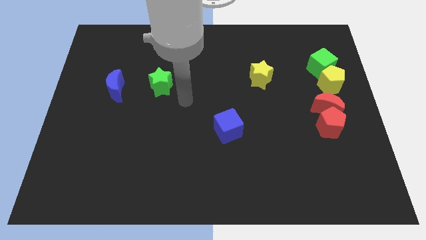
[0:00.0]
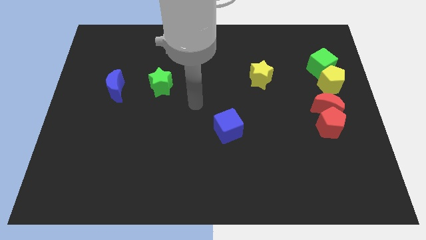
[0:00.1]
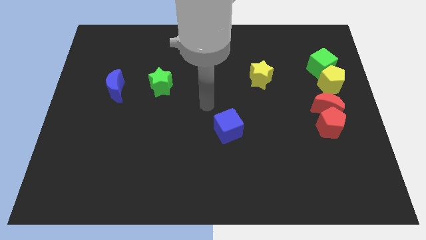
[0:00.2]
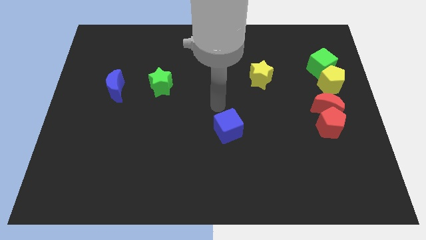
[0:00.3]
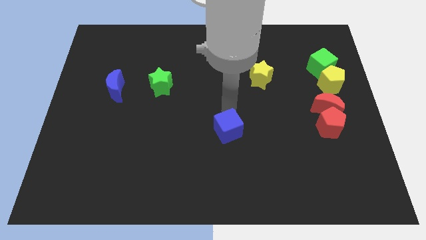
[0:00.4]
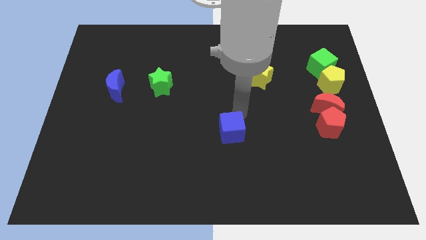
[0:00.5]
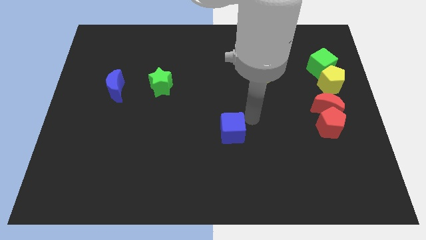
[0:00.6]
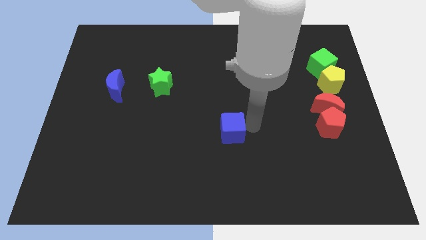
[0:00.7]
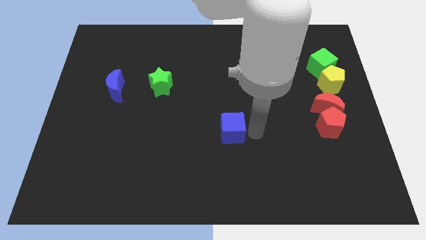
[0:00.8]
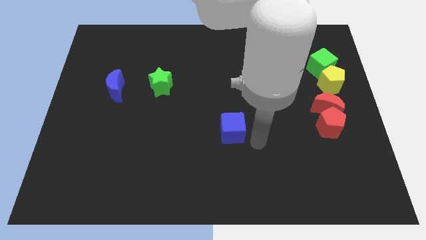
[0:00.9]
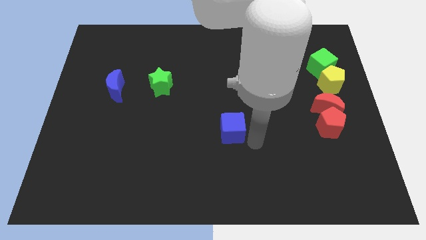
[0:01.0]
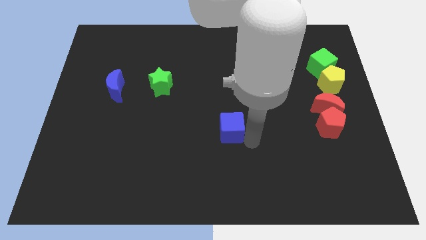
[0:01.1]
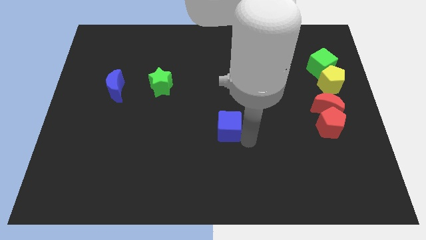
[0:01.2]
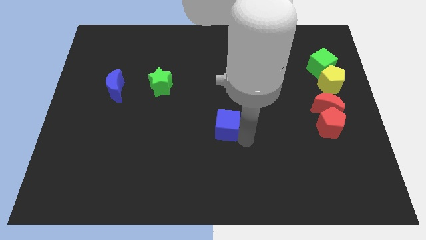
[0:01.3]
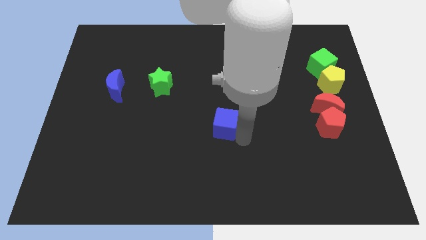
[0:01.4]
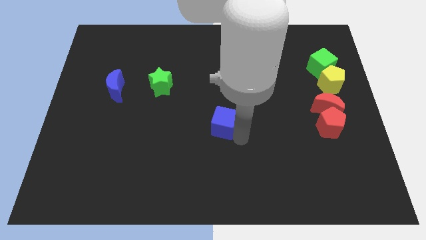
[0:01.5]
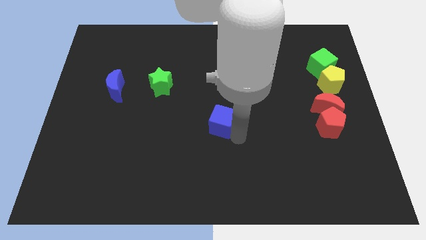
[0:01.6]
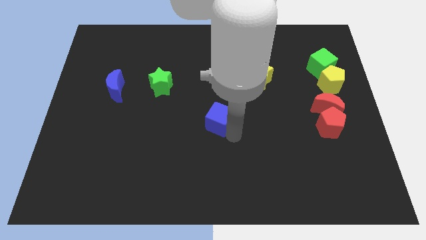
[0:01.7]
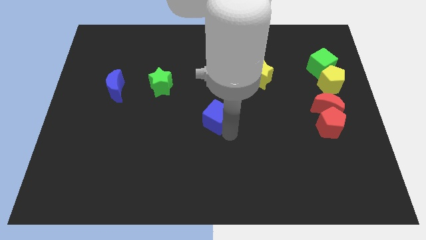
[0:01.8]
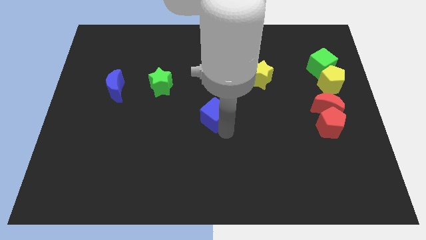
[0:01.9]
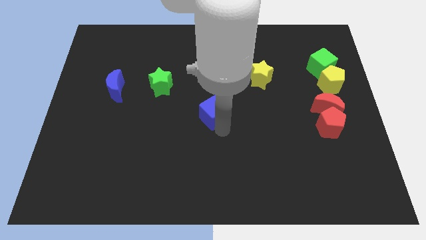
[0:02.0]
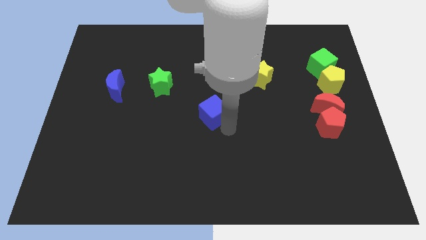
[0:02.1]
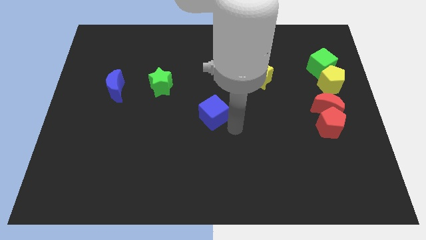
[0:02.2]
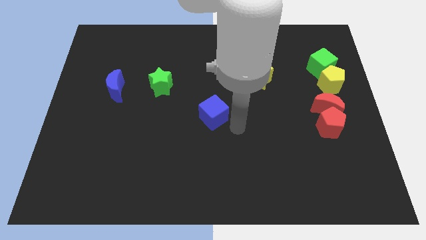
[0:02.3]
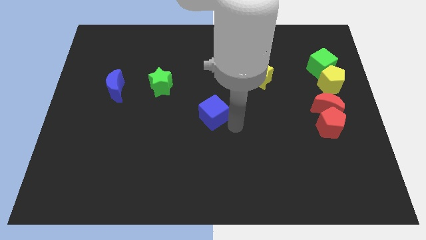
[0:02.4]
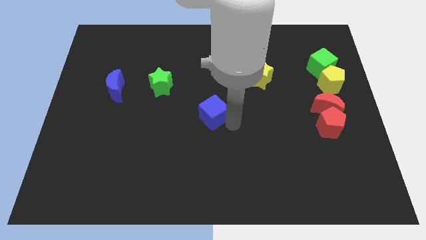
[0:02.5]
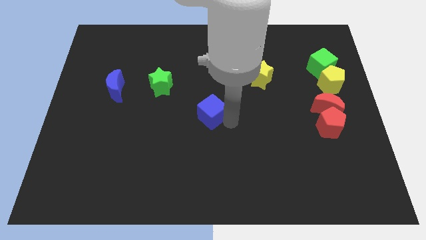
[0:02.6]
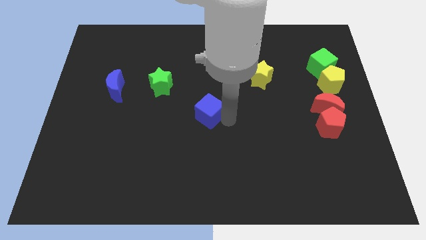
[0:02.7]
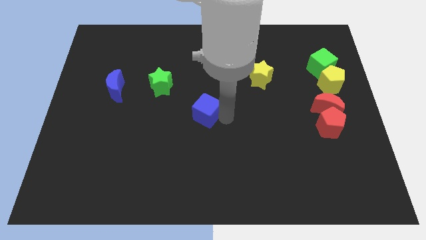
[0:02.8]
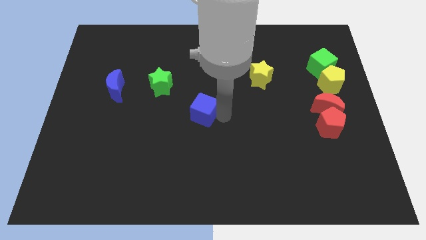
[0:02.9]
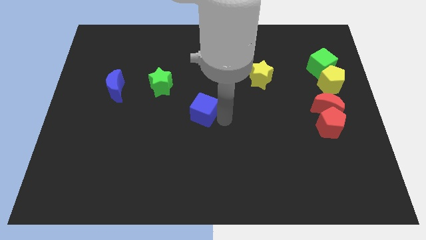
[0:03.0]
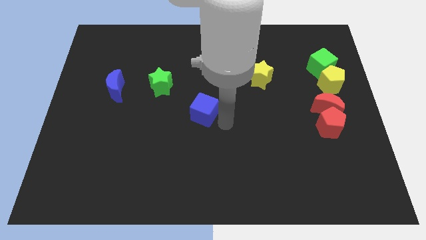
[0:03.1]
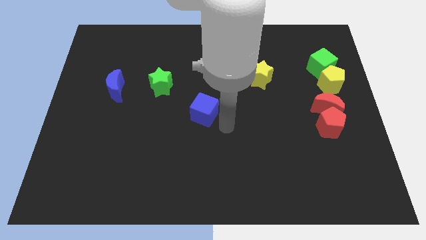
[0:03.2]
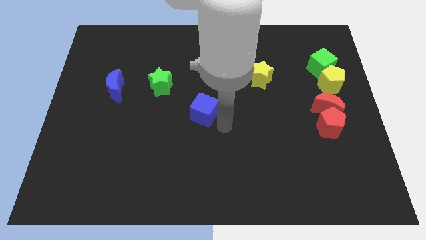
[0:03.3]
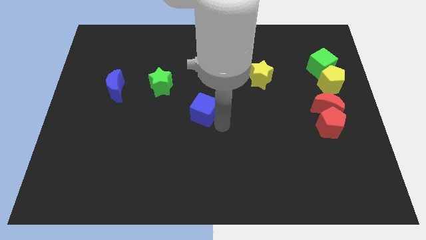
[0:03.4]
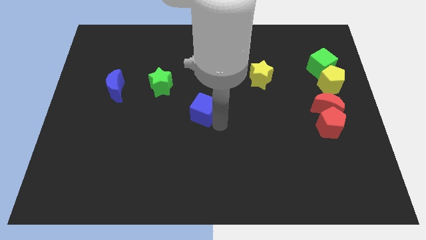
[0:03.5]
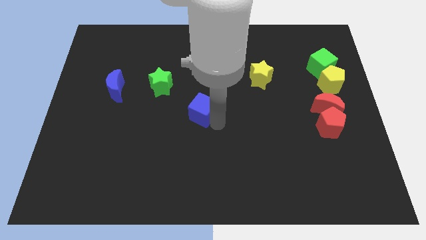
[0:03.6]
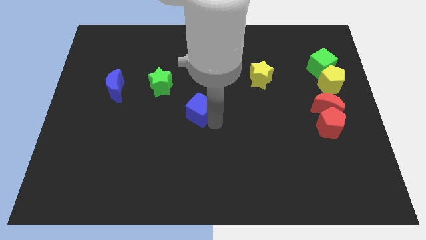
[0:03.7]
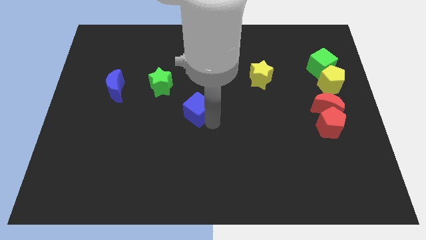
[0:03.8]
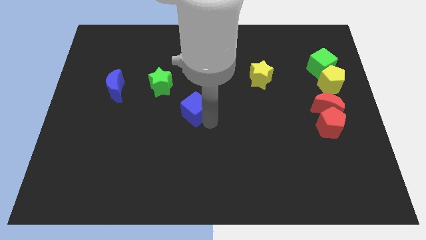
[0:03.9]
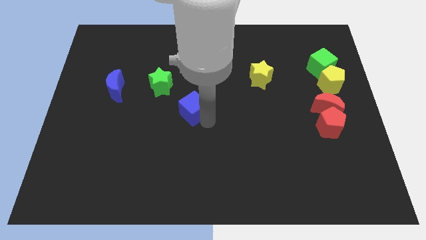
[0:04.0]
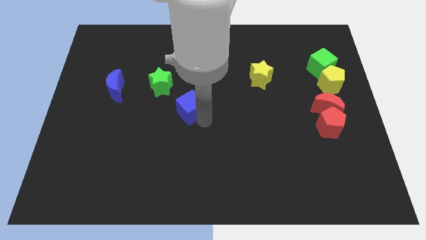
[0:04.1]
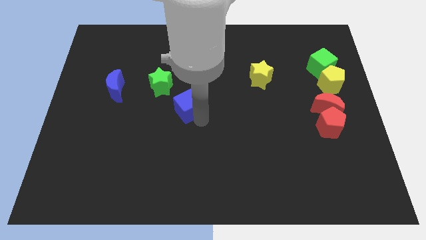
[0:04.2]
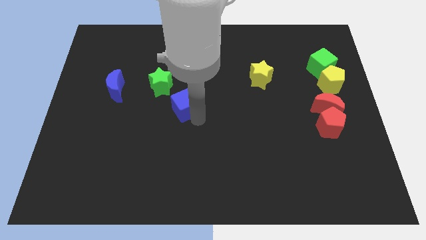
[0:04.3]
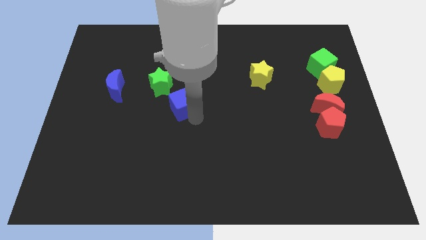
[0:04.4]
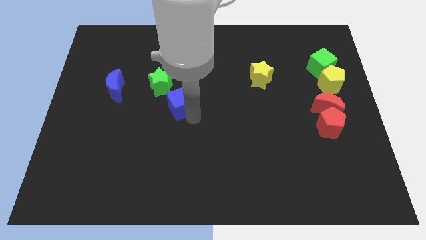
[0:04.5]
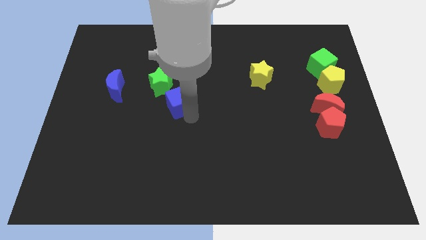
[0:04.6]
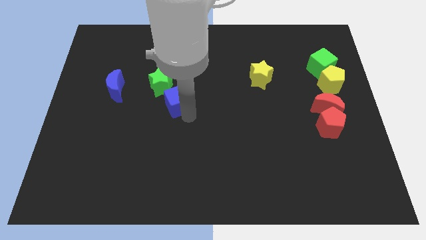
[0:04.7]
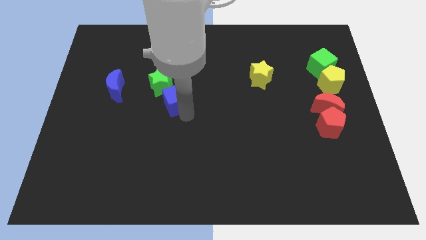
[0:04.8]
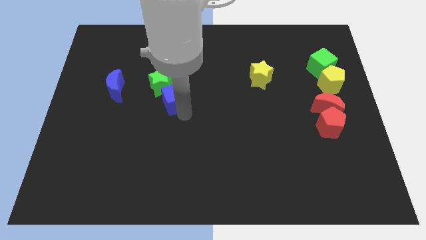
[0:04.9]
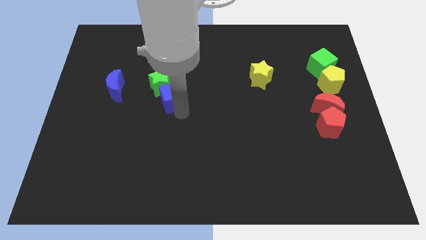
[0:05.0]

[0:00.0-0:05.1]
push the blue cube close to the green star

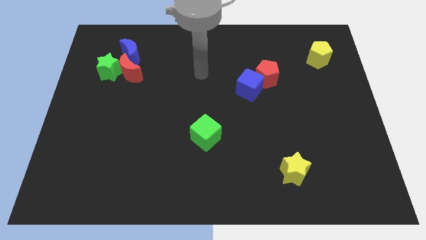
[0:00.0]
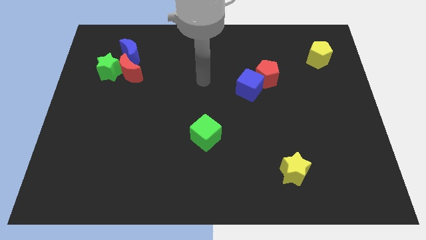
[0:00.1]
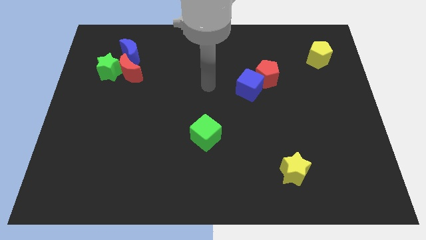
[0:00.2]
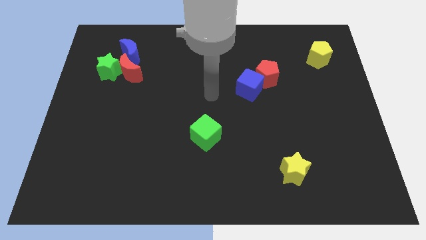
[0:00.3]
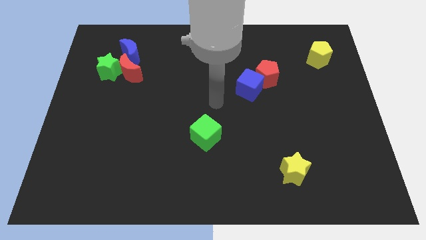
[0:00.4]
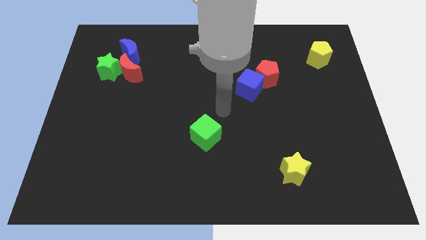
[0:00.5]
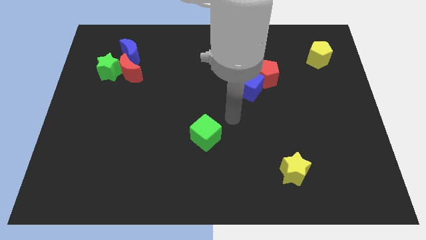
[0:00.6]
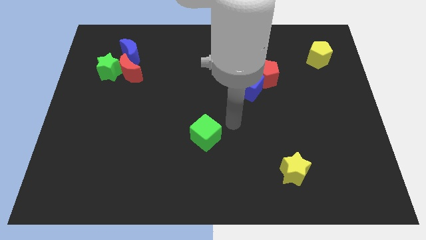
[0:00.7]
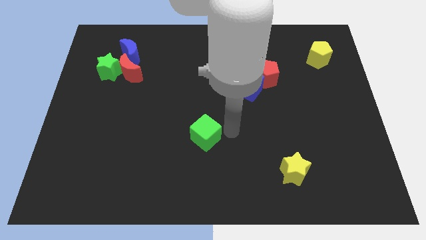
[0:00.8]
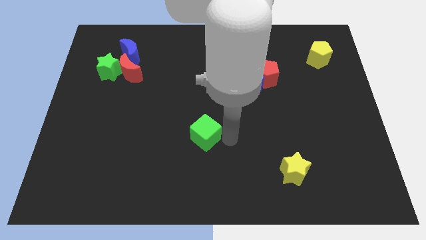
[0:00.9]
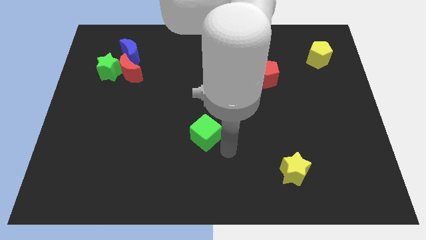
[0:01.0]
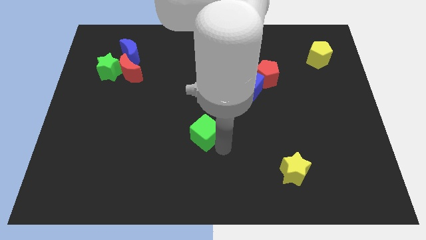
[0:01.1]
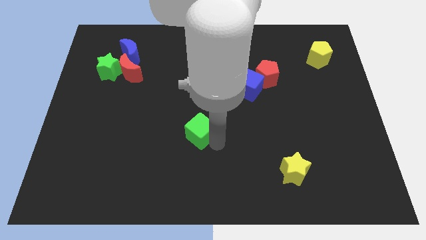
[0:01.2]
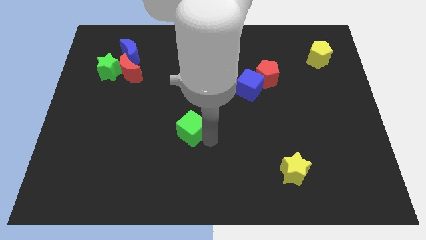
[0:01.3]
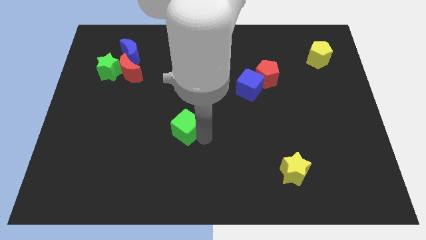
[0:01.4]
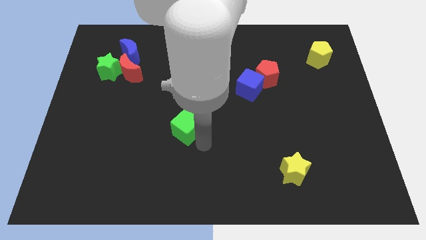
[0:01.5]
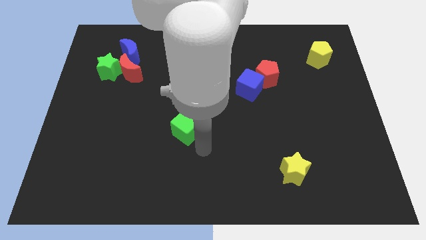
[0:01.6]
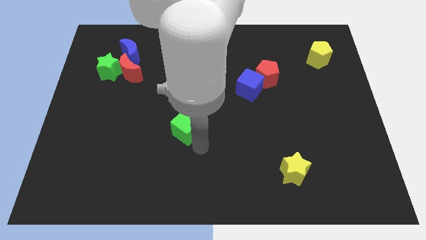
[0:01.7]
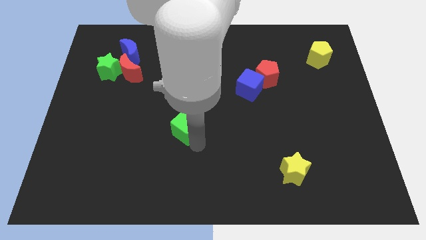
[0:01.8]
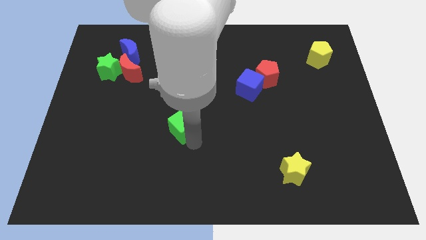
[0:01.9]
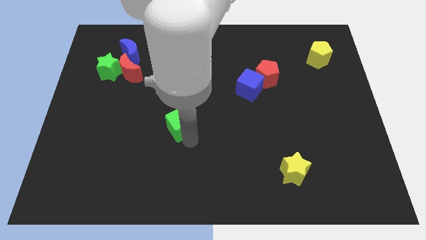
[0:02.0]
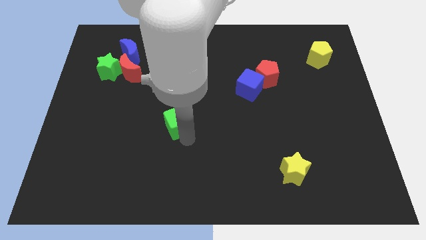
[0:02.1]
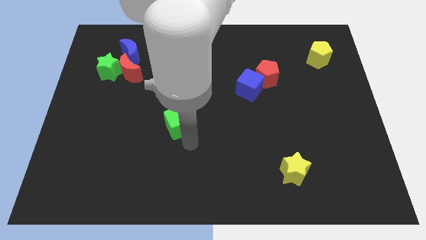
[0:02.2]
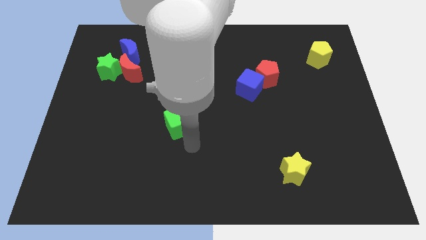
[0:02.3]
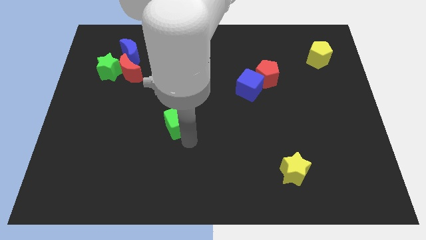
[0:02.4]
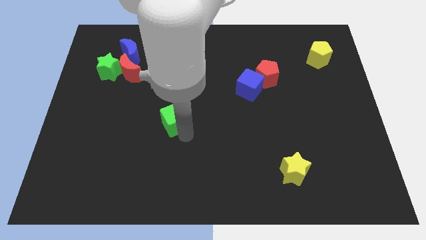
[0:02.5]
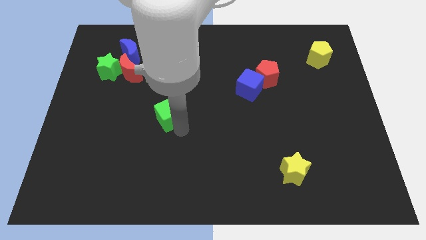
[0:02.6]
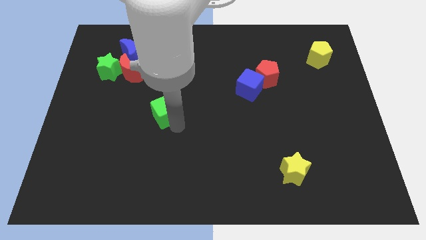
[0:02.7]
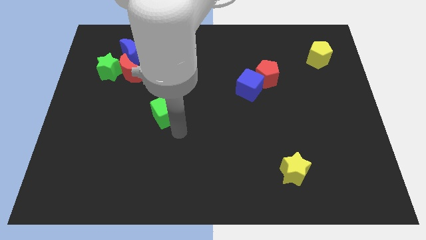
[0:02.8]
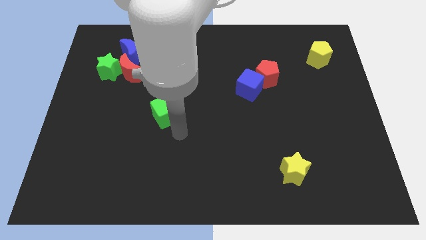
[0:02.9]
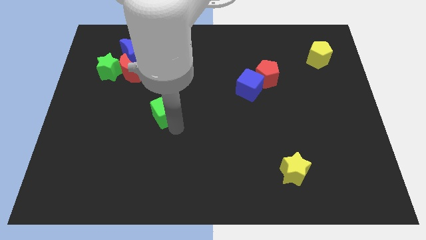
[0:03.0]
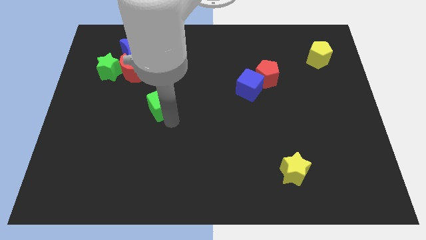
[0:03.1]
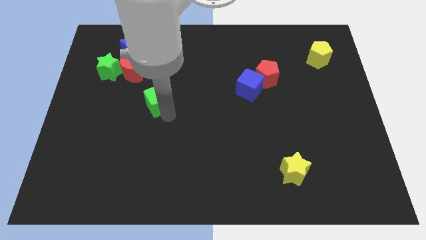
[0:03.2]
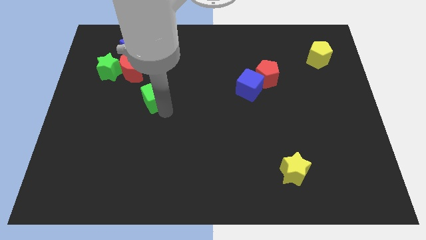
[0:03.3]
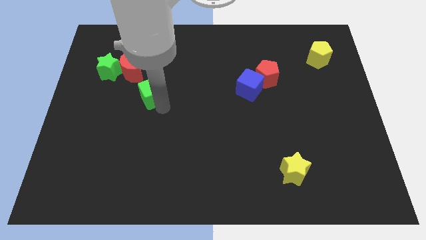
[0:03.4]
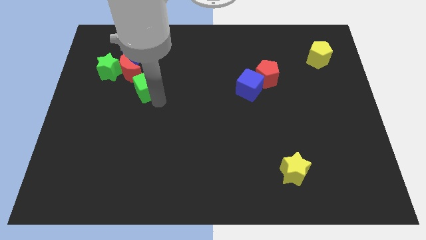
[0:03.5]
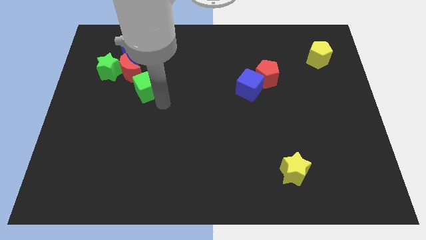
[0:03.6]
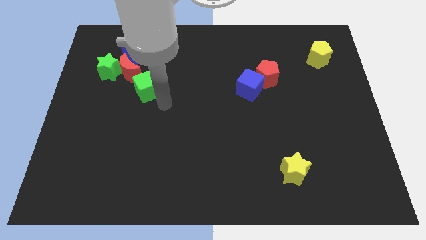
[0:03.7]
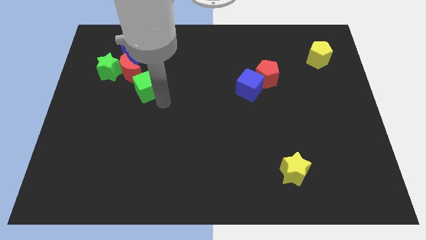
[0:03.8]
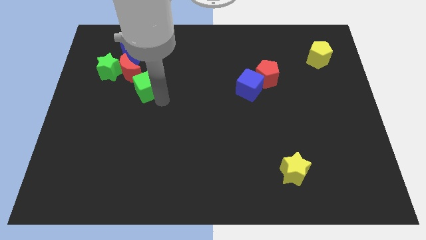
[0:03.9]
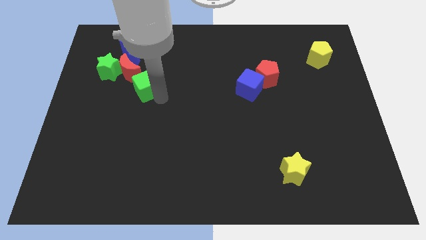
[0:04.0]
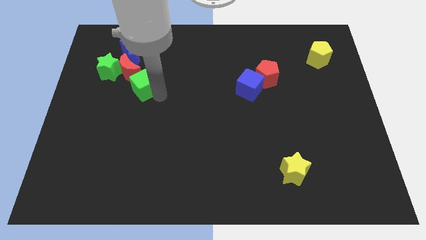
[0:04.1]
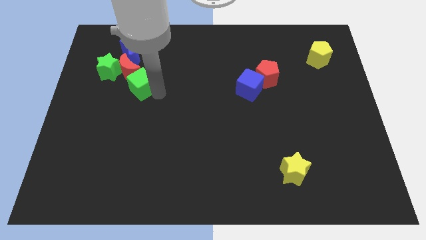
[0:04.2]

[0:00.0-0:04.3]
push the green cube to the red moon
